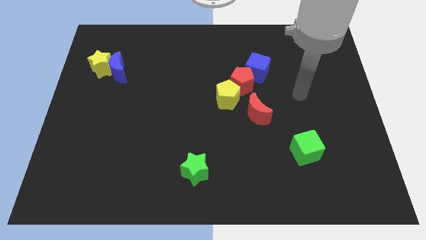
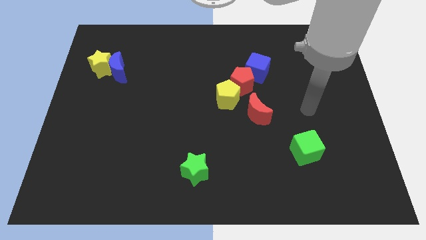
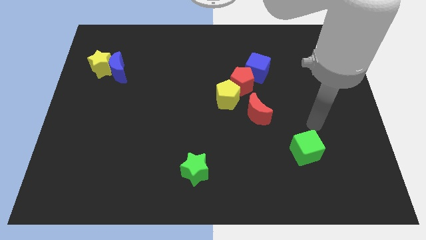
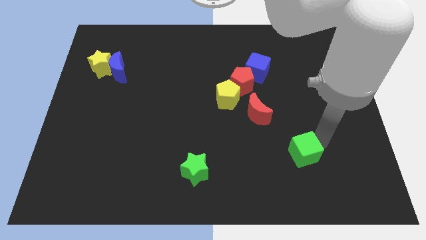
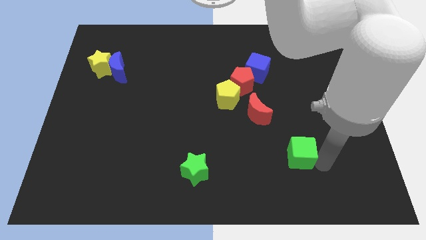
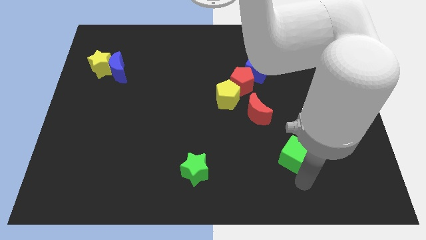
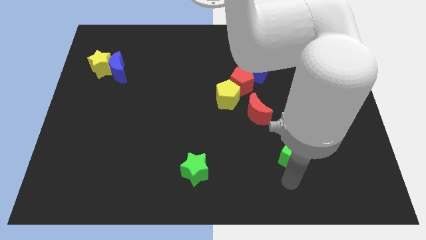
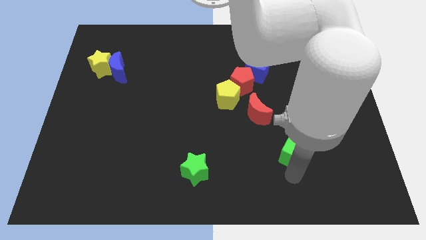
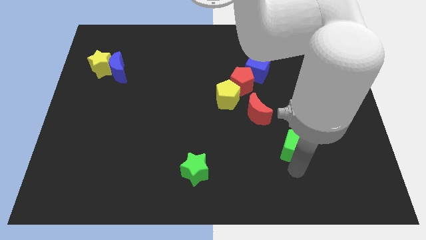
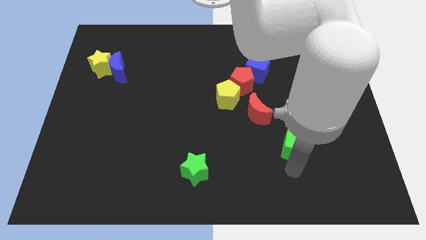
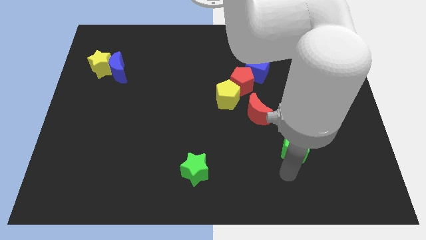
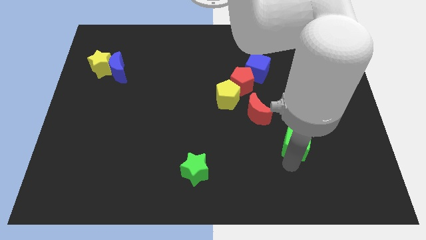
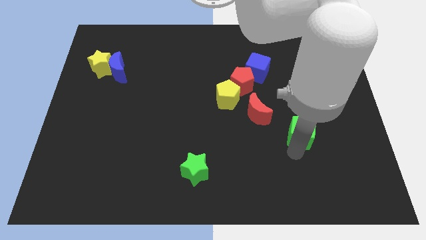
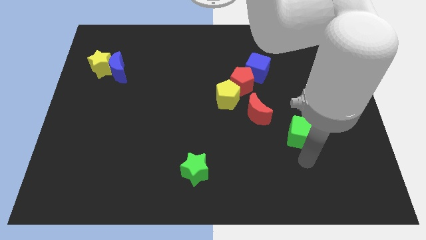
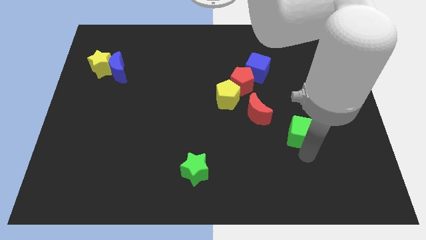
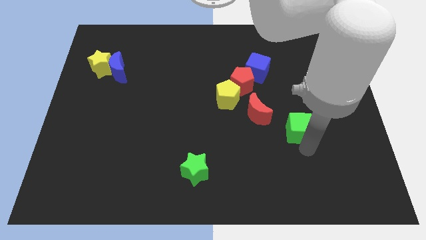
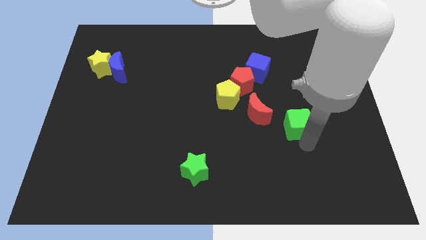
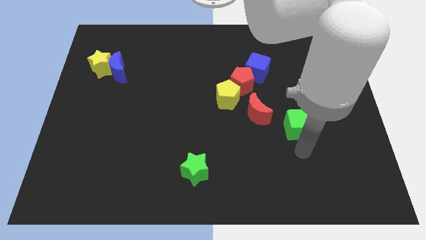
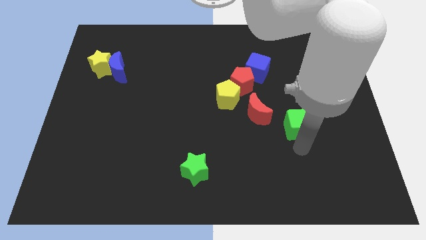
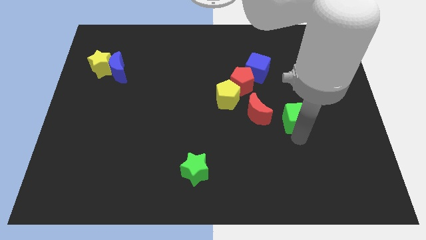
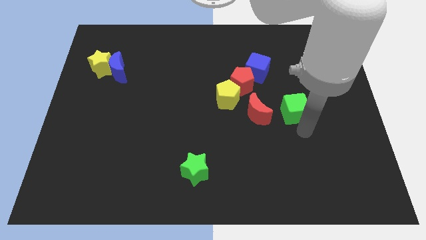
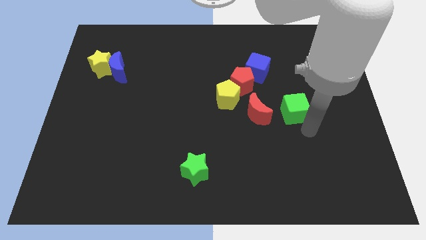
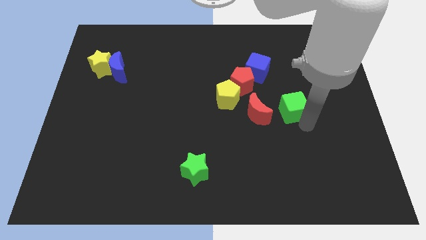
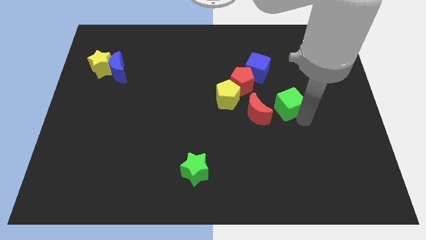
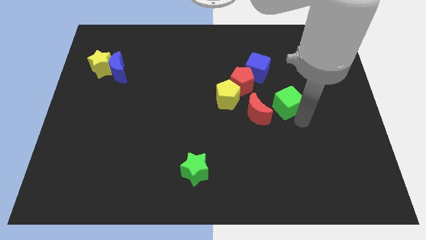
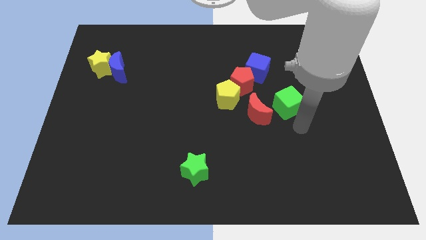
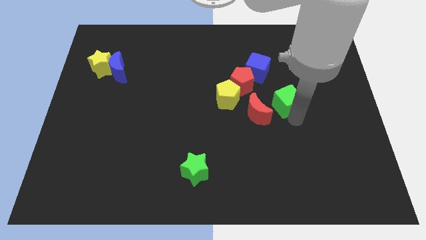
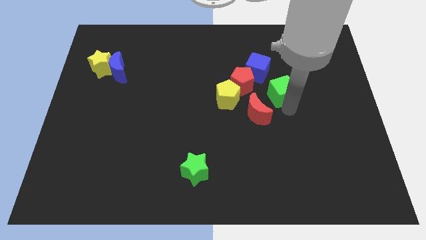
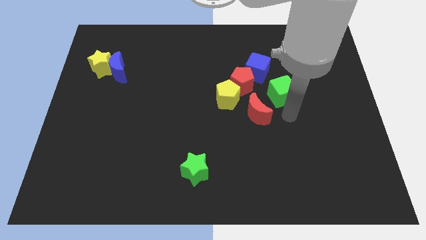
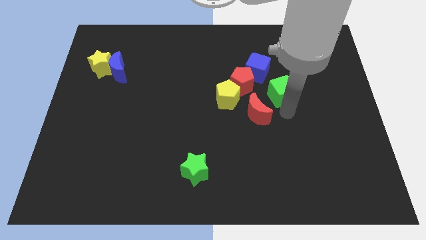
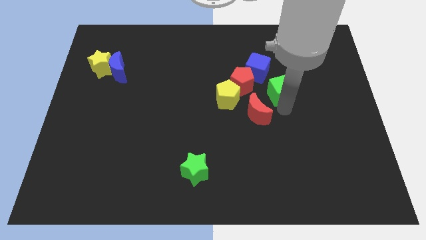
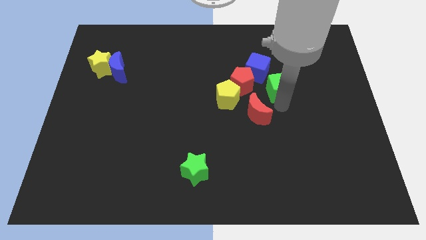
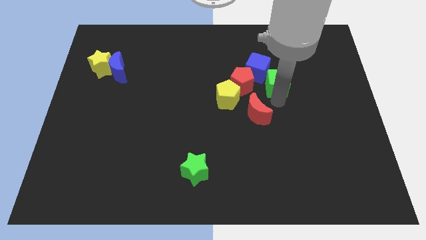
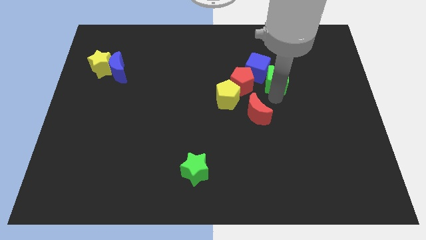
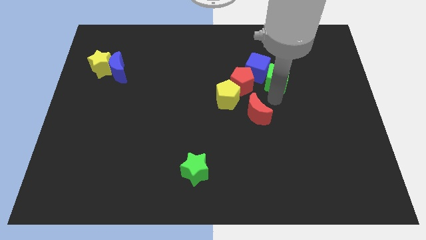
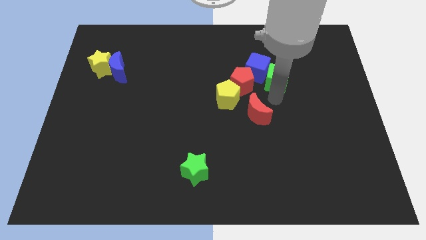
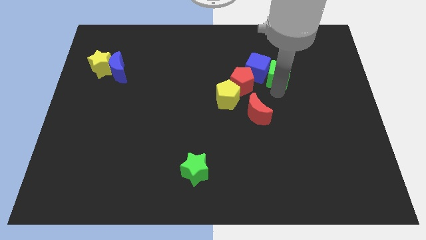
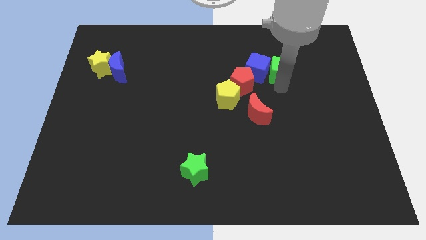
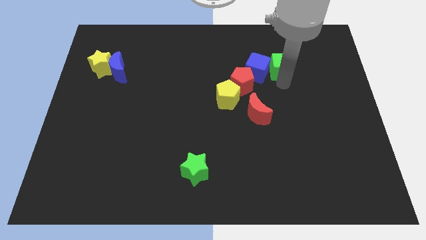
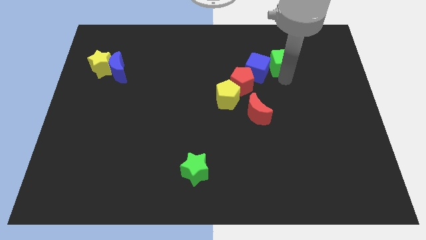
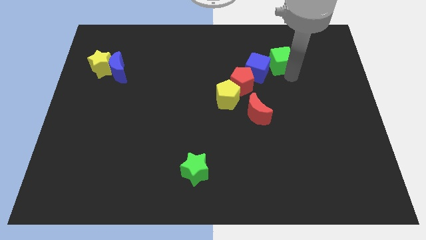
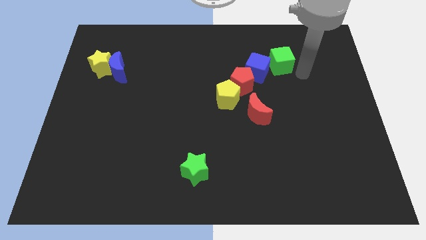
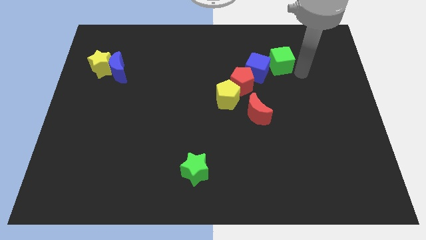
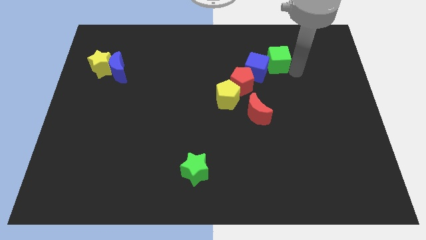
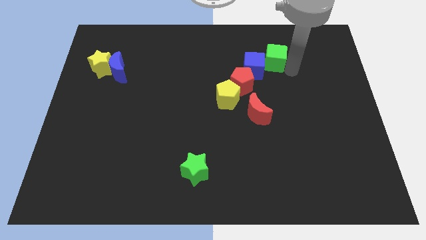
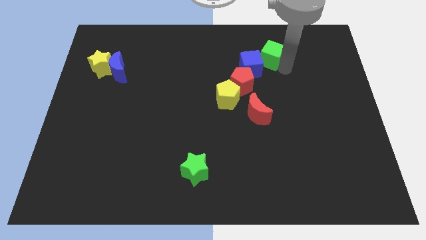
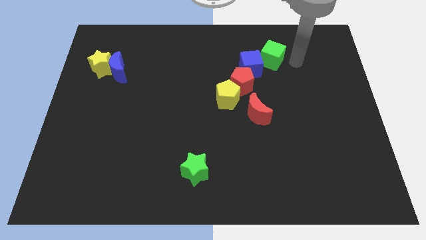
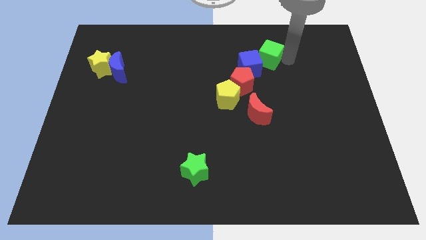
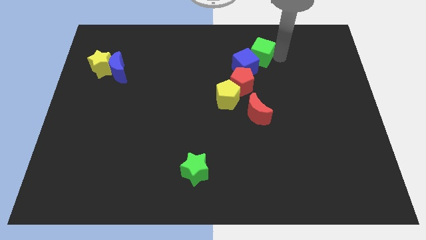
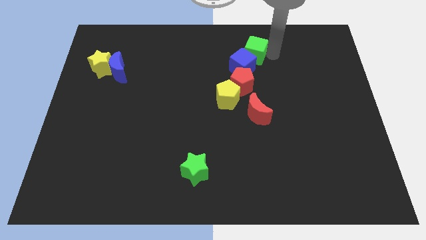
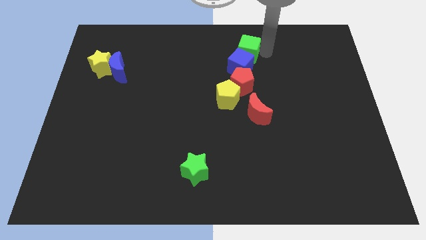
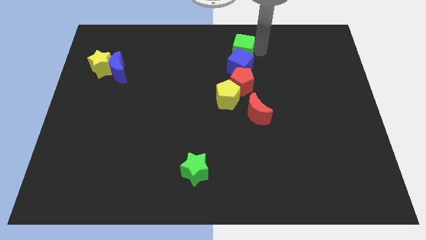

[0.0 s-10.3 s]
put the green cube to the top left side of the blue cube

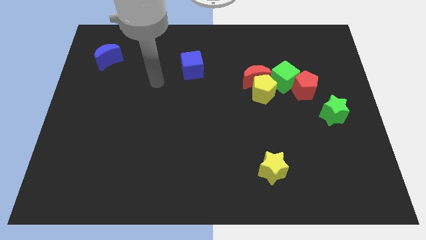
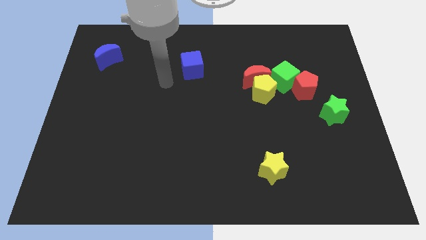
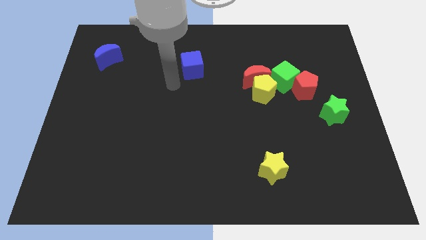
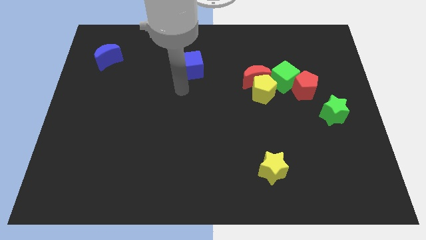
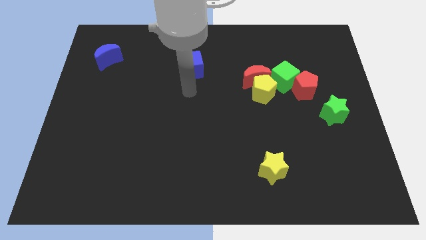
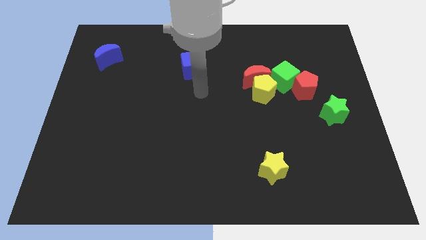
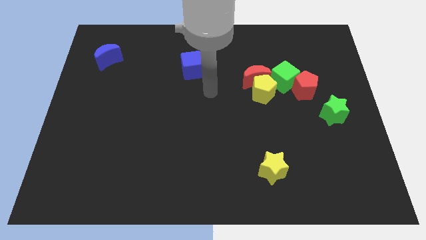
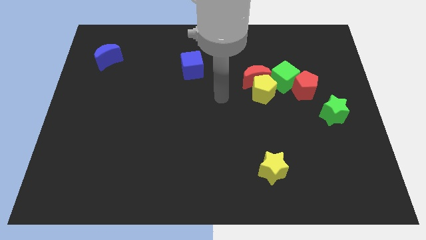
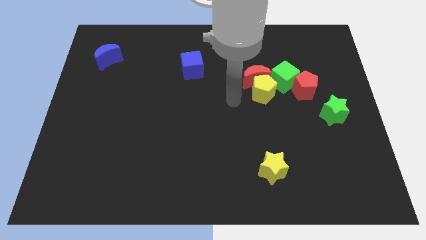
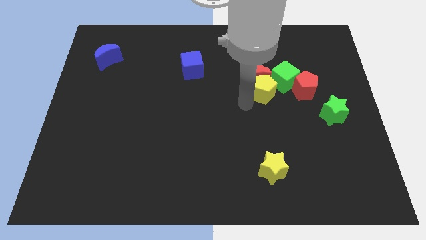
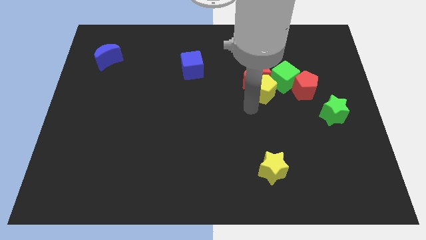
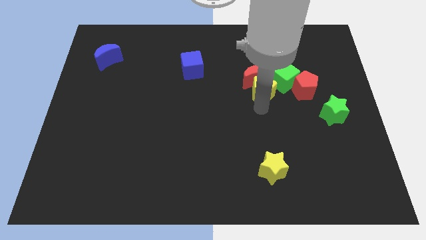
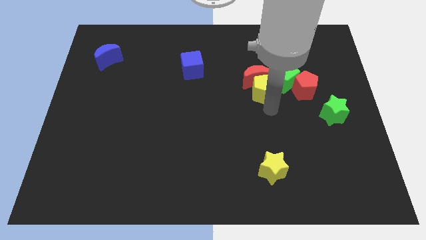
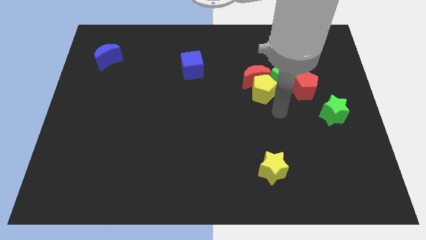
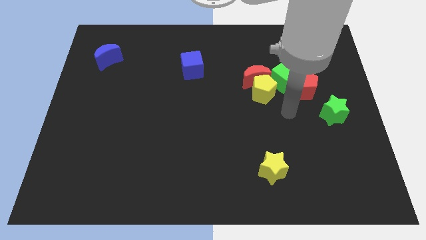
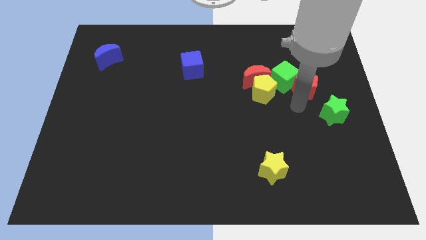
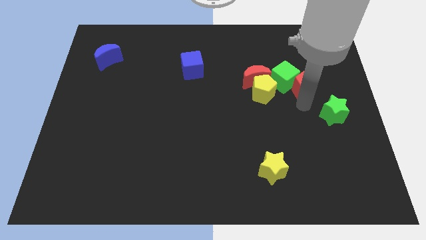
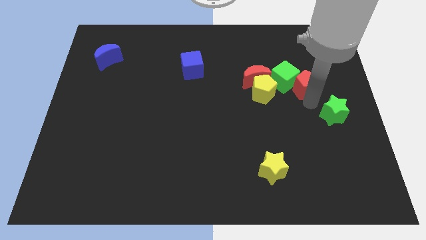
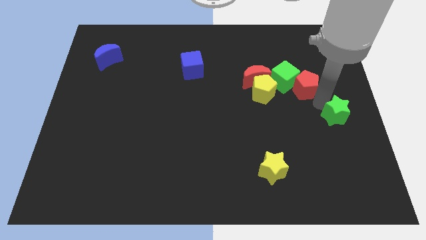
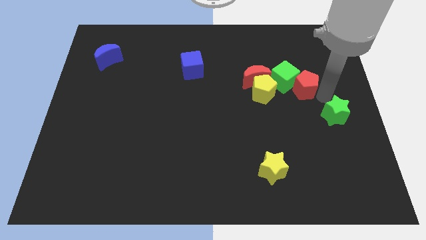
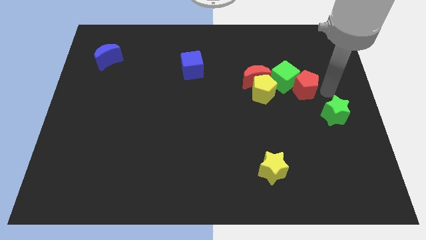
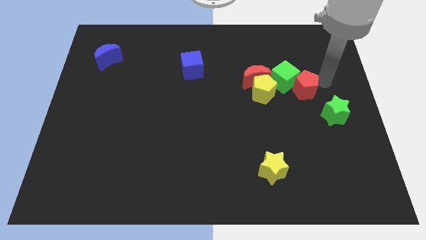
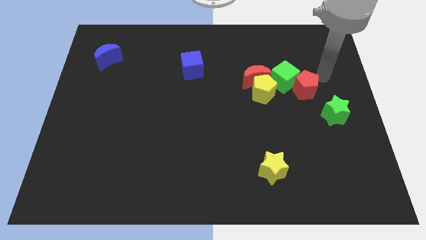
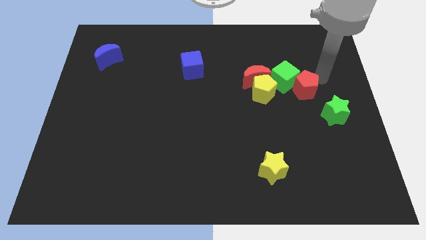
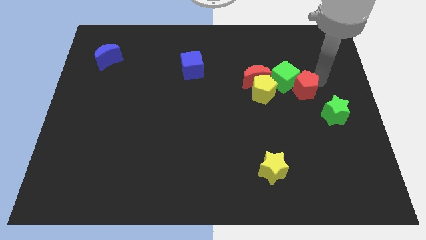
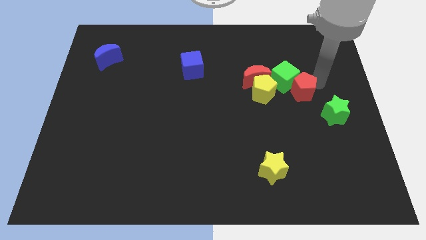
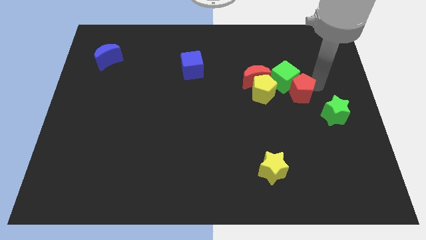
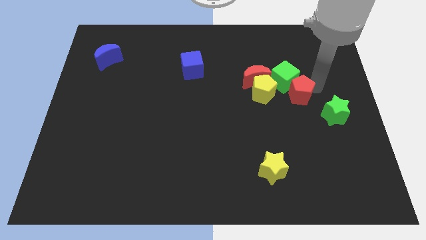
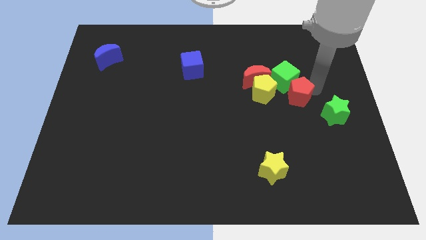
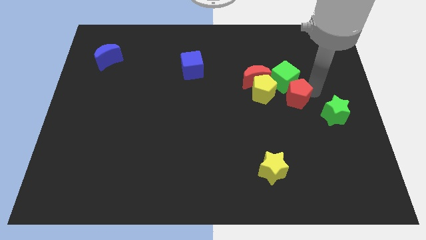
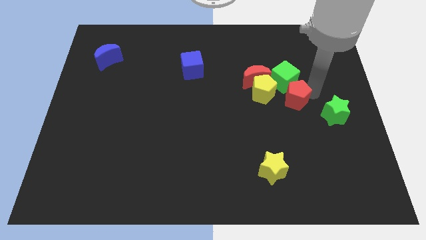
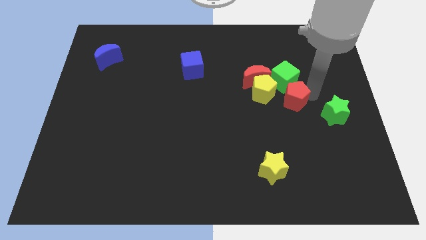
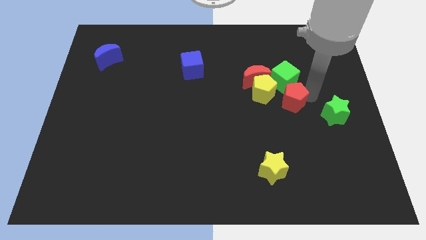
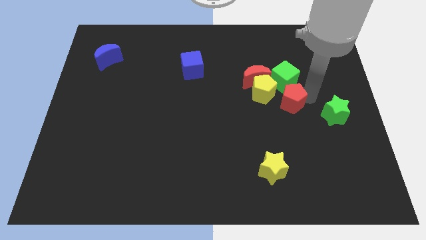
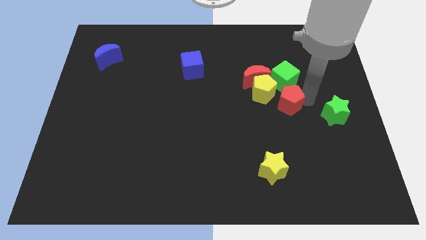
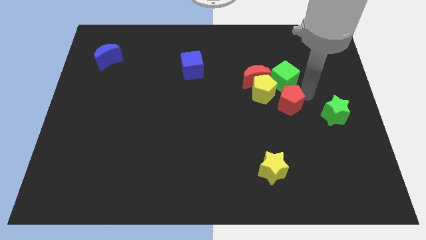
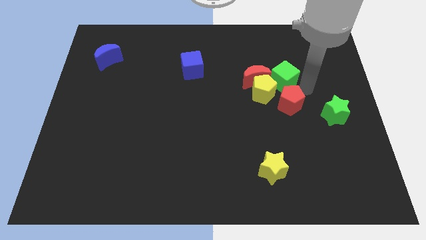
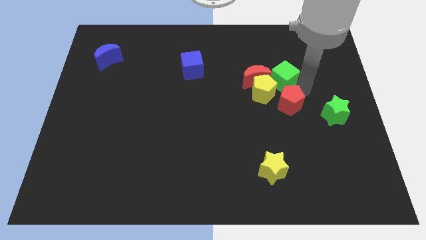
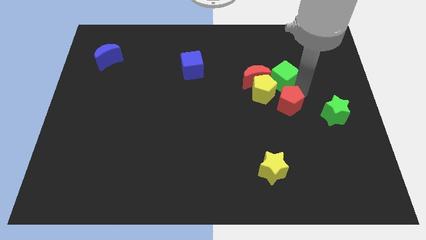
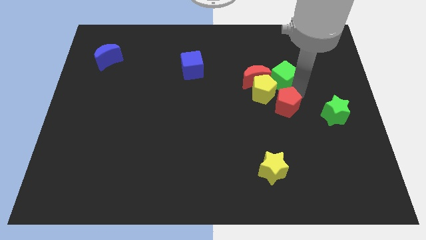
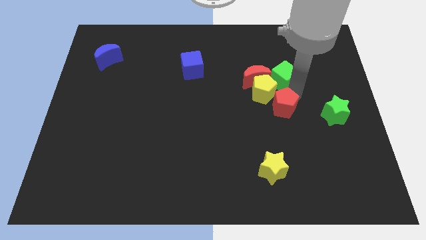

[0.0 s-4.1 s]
move the red pentagon to the bottom side of the yellow pentagon
